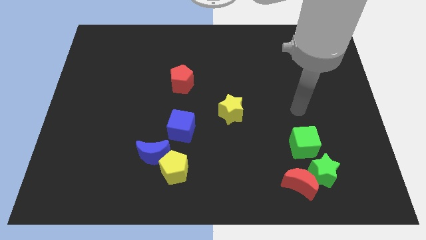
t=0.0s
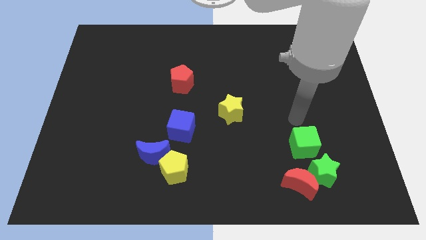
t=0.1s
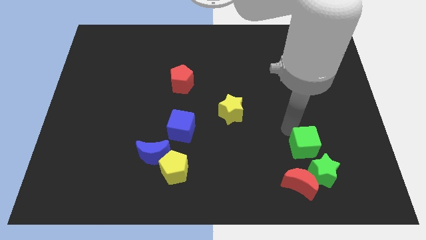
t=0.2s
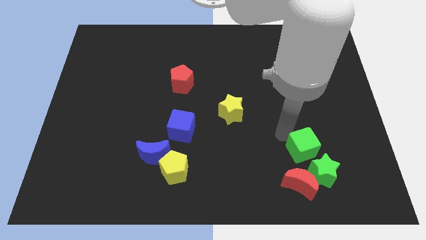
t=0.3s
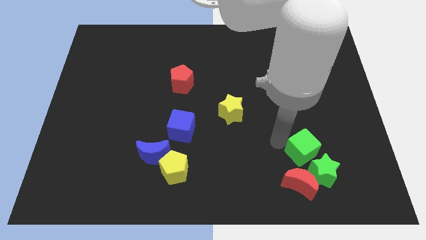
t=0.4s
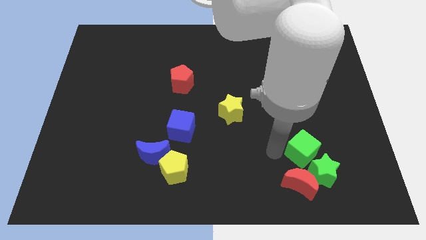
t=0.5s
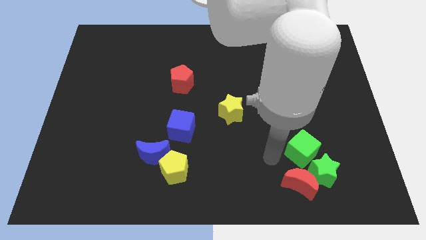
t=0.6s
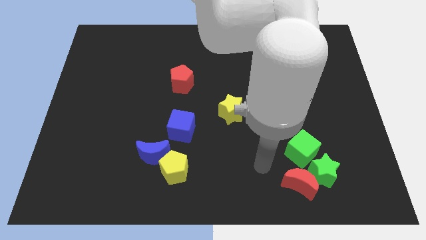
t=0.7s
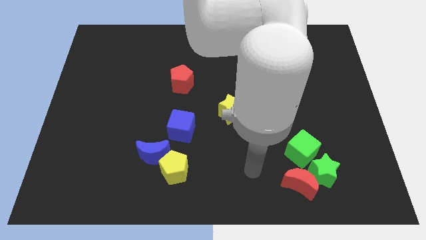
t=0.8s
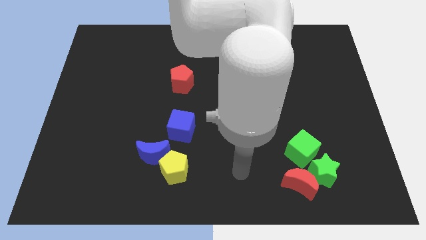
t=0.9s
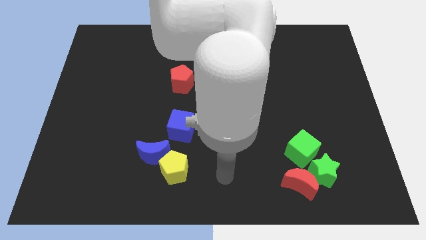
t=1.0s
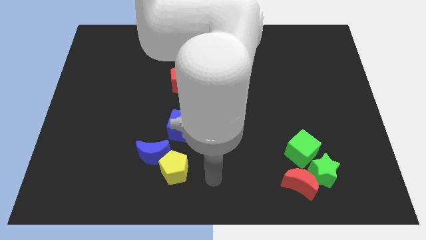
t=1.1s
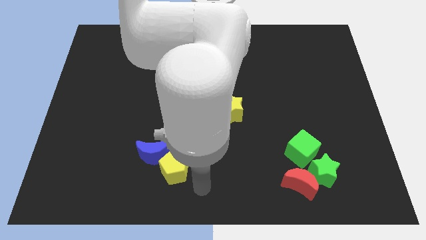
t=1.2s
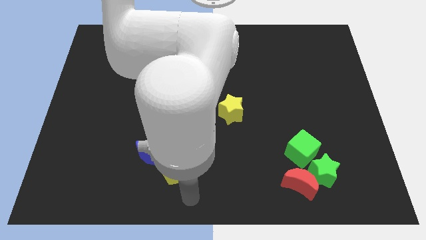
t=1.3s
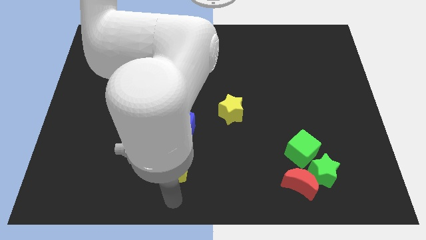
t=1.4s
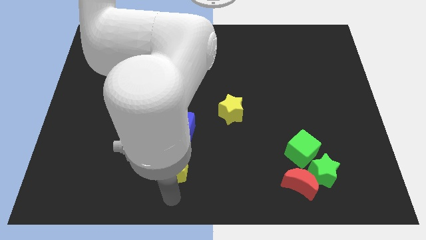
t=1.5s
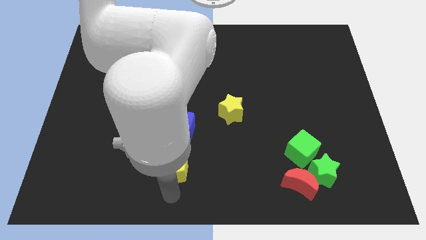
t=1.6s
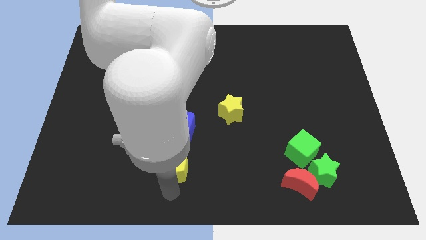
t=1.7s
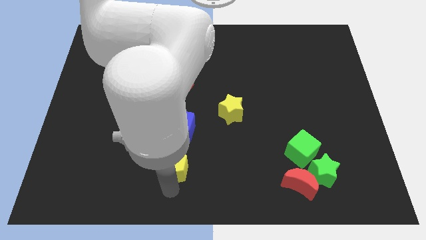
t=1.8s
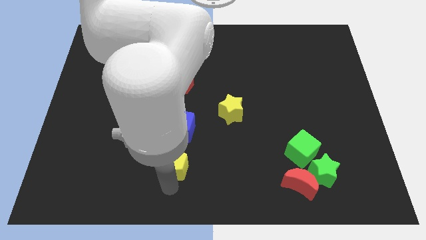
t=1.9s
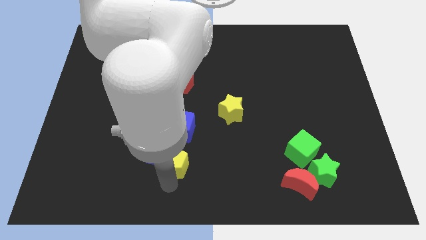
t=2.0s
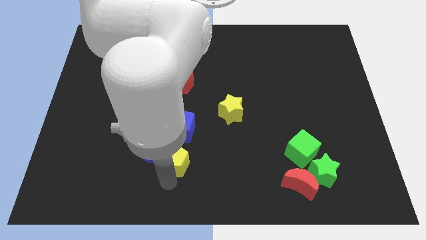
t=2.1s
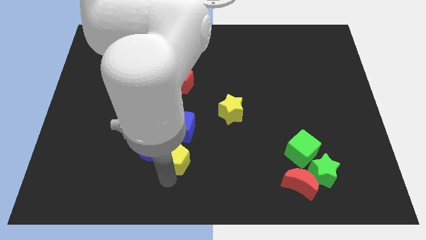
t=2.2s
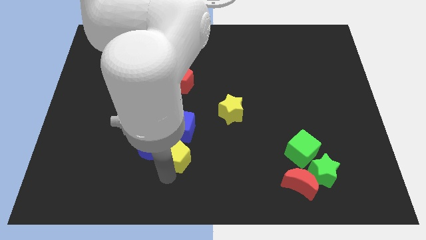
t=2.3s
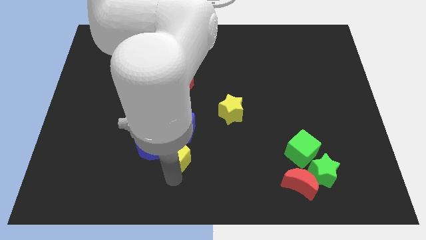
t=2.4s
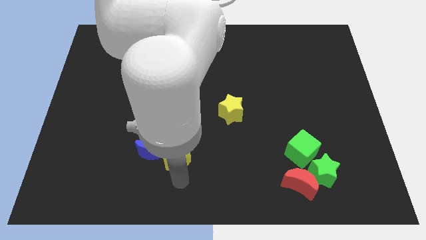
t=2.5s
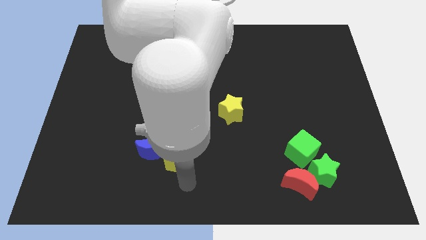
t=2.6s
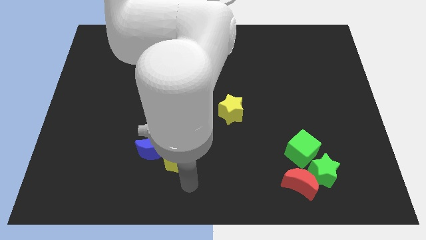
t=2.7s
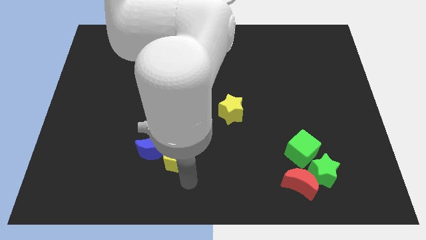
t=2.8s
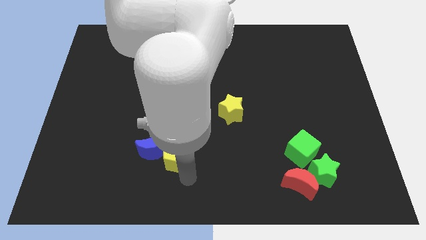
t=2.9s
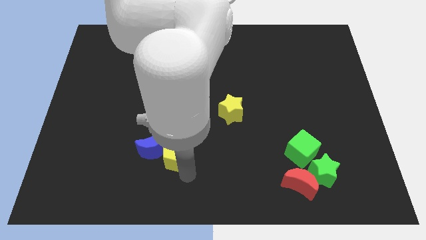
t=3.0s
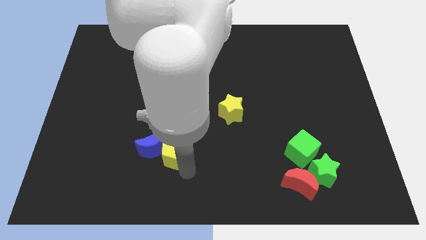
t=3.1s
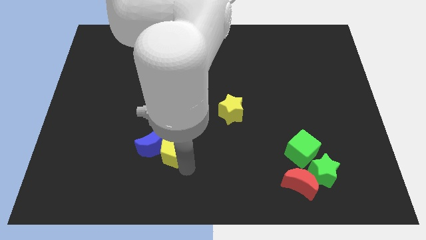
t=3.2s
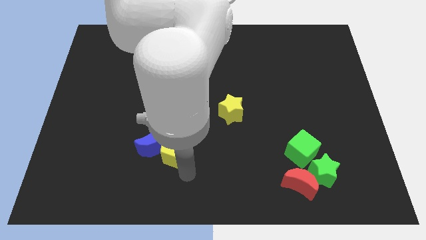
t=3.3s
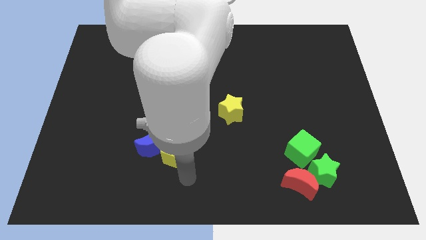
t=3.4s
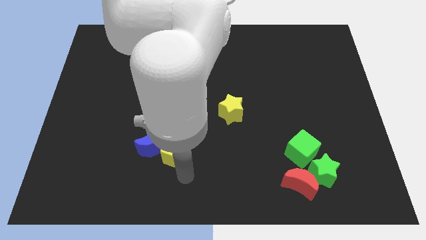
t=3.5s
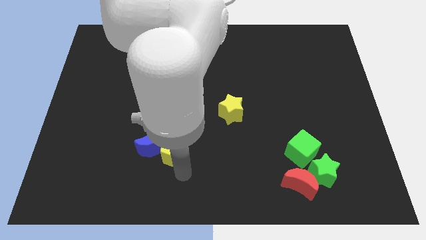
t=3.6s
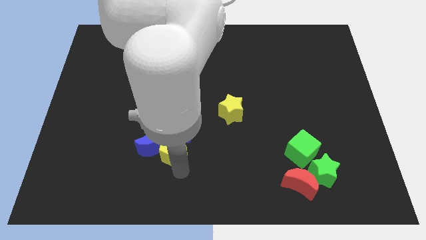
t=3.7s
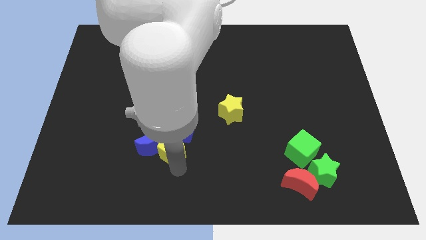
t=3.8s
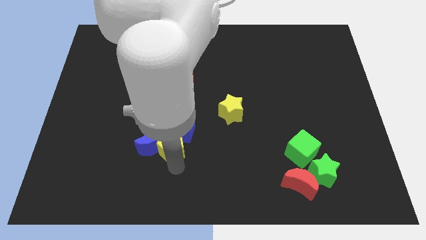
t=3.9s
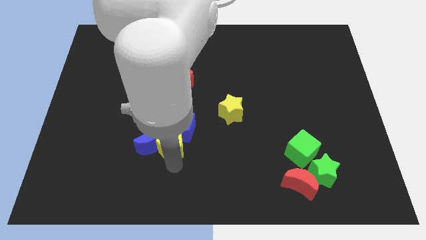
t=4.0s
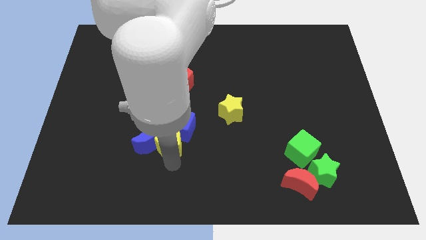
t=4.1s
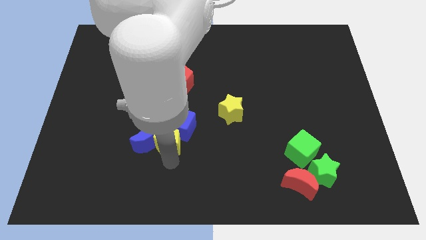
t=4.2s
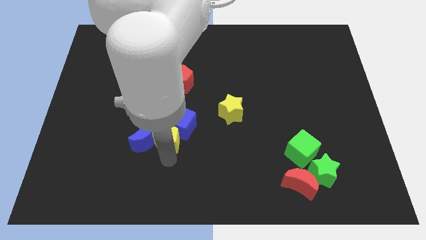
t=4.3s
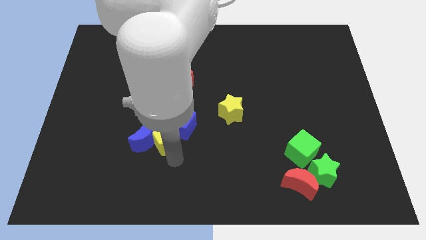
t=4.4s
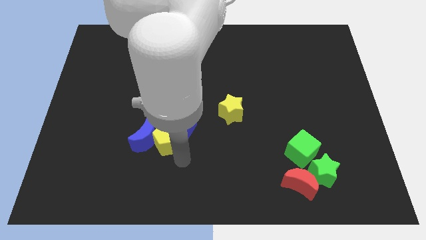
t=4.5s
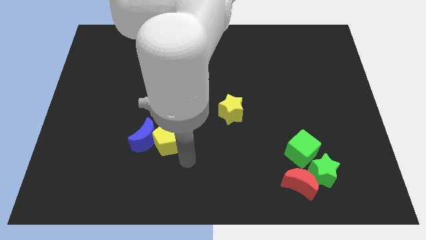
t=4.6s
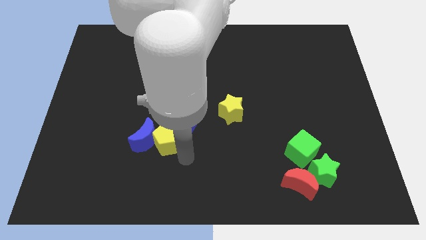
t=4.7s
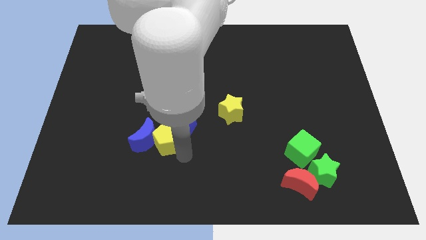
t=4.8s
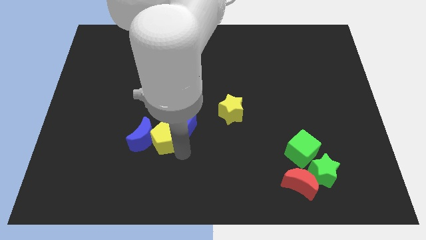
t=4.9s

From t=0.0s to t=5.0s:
slide the yellow pentagon upwards and then left a little bit

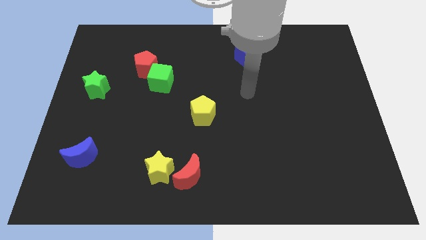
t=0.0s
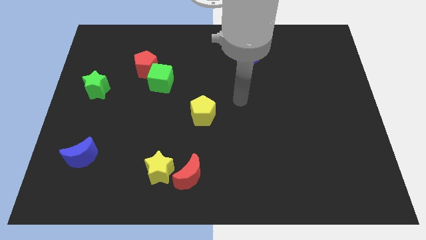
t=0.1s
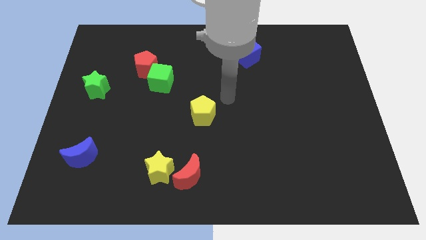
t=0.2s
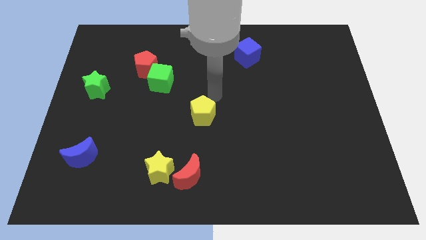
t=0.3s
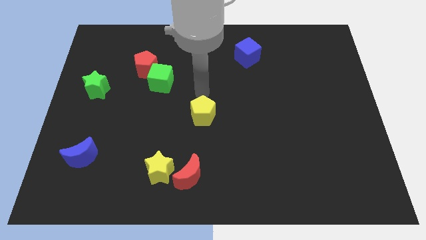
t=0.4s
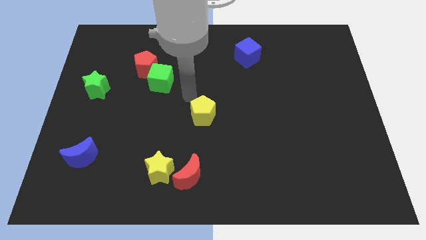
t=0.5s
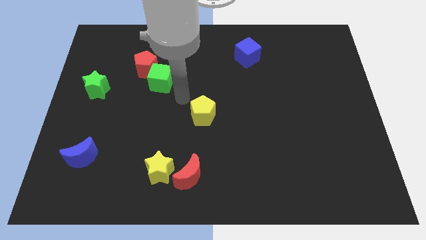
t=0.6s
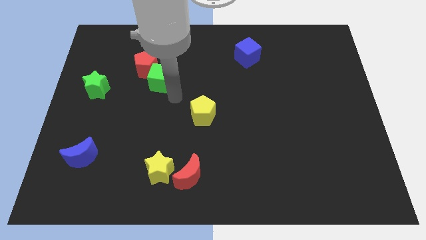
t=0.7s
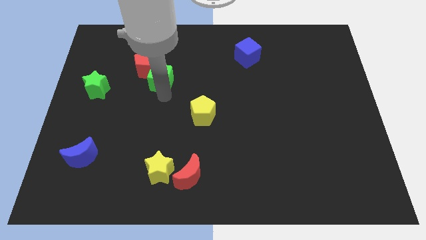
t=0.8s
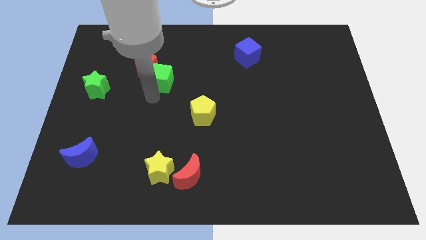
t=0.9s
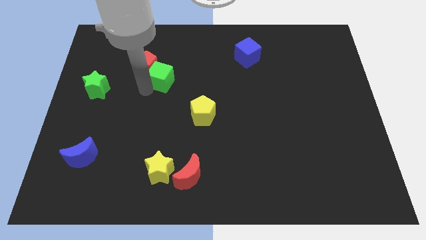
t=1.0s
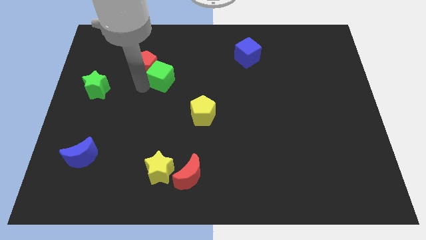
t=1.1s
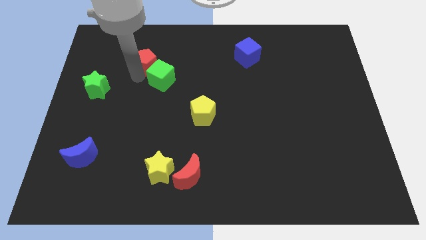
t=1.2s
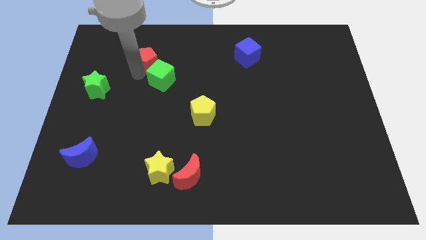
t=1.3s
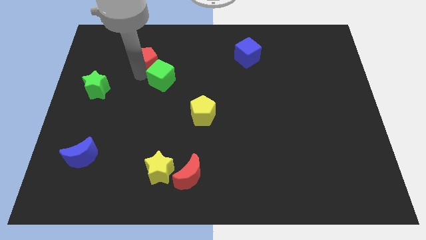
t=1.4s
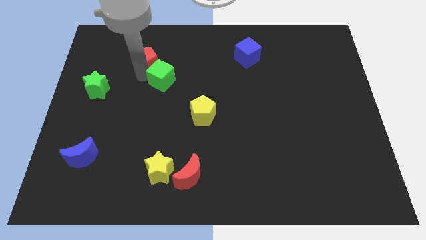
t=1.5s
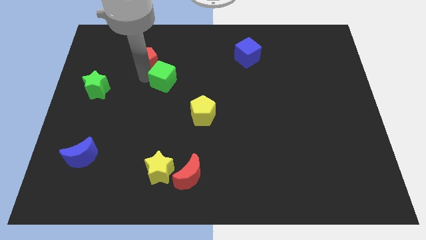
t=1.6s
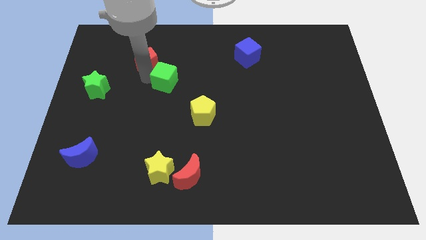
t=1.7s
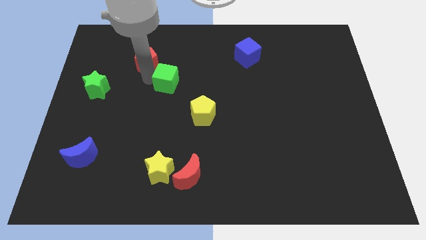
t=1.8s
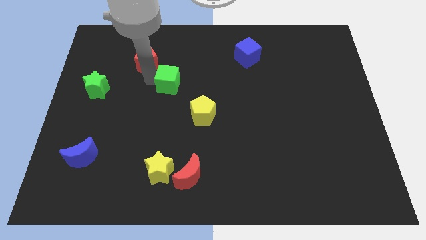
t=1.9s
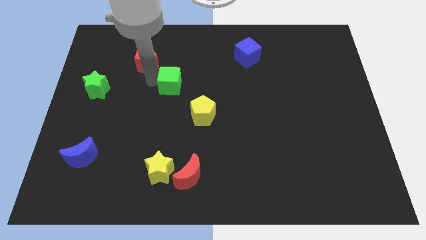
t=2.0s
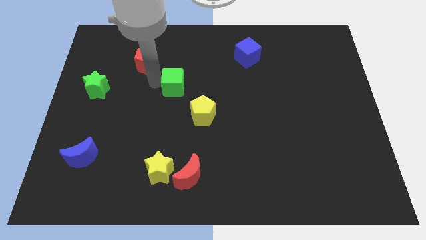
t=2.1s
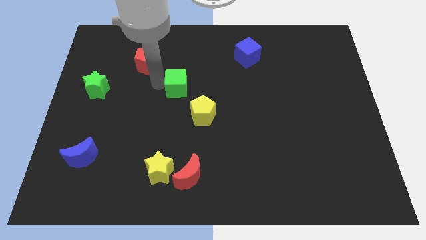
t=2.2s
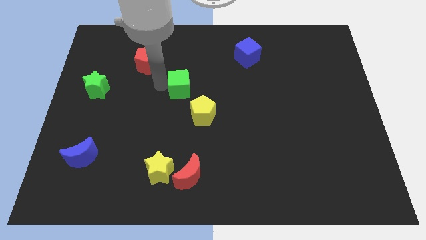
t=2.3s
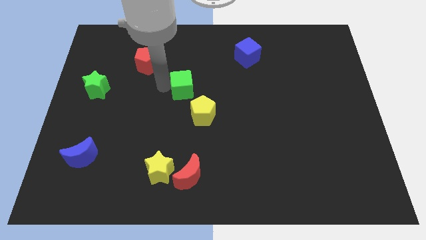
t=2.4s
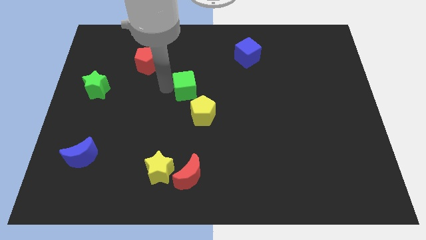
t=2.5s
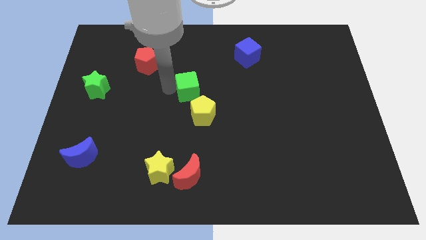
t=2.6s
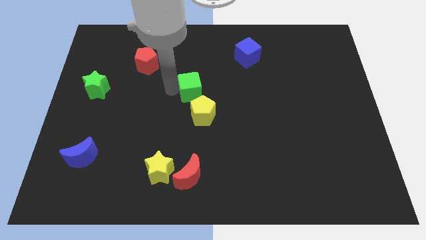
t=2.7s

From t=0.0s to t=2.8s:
slightly push the green cube right

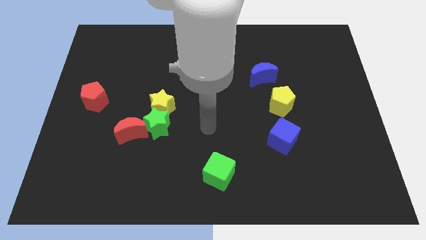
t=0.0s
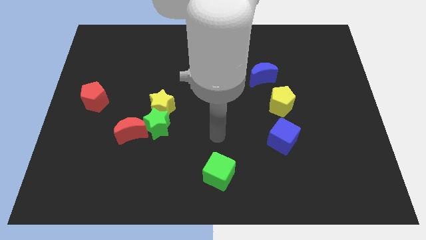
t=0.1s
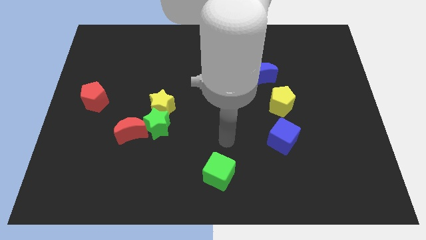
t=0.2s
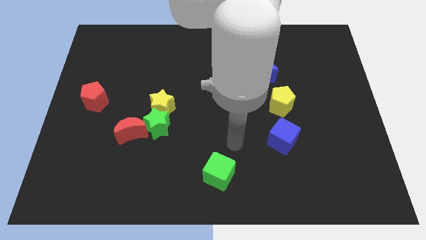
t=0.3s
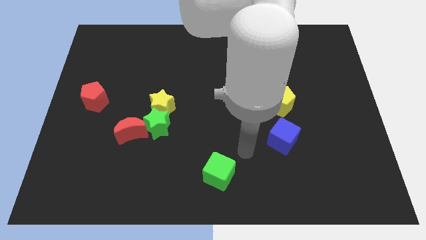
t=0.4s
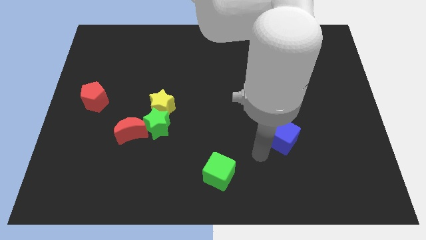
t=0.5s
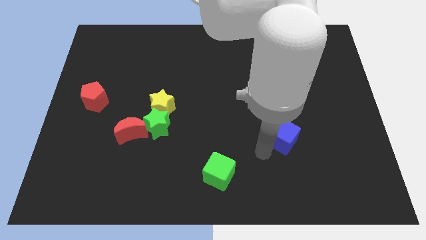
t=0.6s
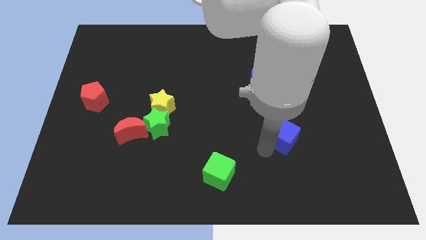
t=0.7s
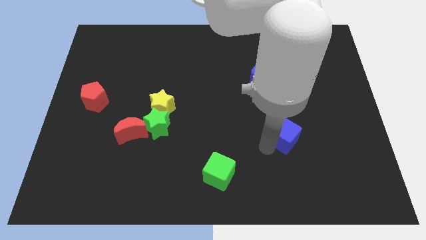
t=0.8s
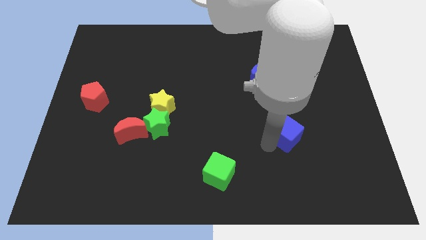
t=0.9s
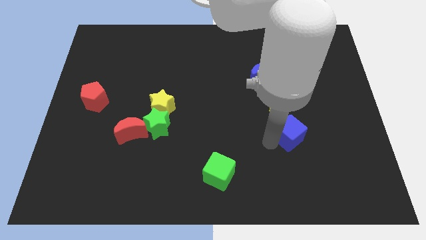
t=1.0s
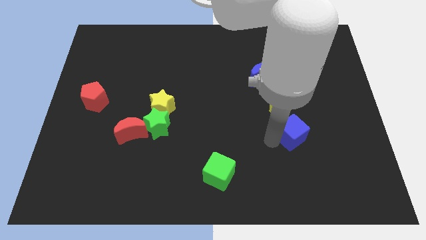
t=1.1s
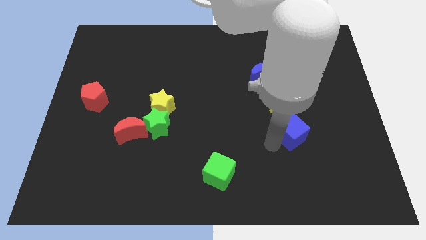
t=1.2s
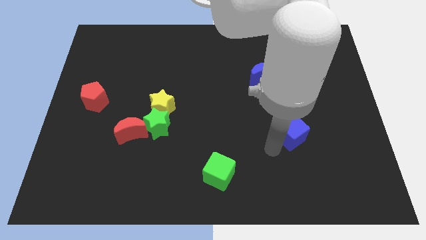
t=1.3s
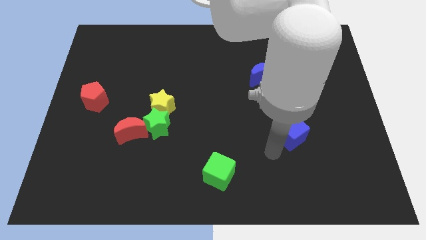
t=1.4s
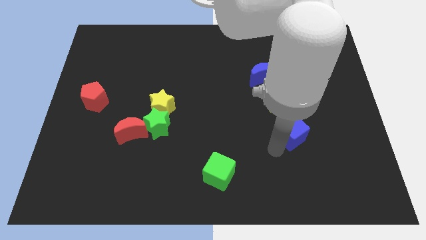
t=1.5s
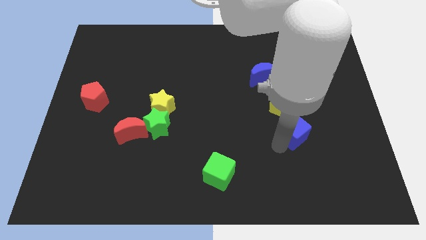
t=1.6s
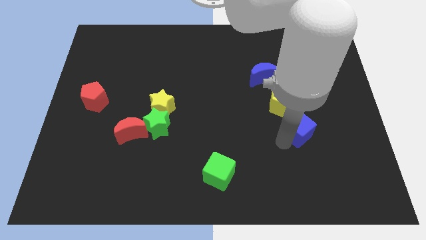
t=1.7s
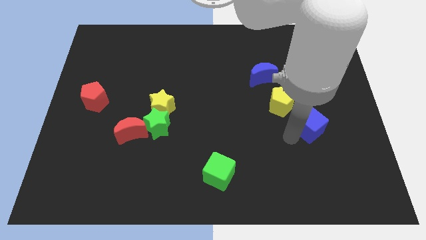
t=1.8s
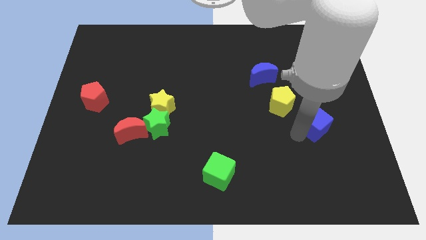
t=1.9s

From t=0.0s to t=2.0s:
slightly move the blue cube upwards and right diagonally
